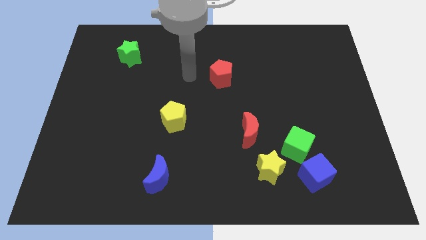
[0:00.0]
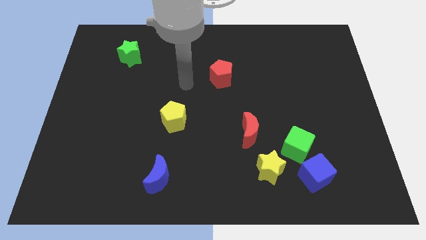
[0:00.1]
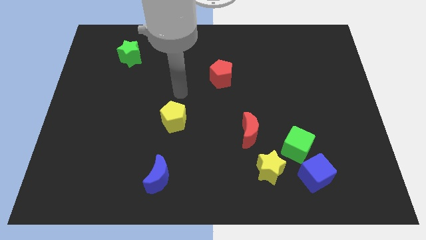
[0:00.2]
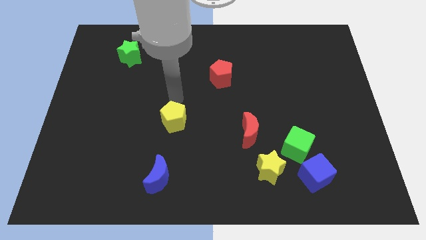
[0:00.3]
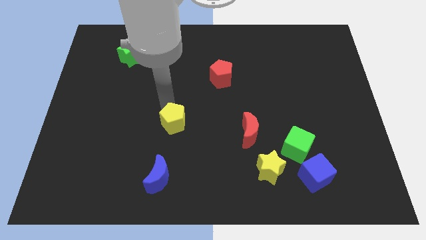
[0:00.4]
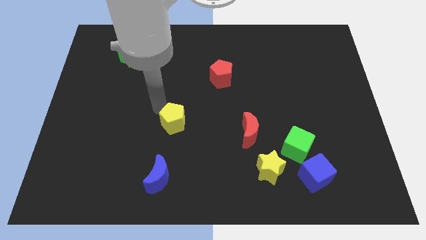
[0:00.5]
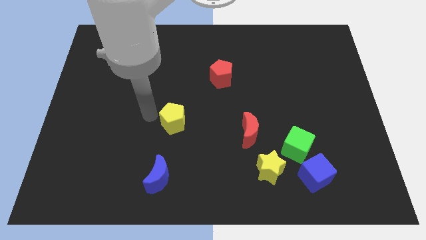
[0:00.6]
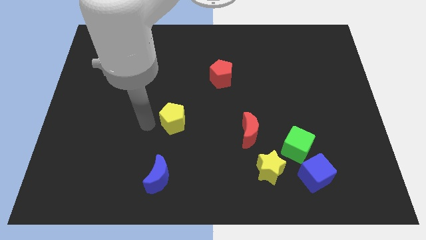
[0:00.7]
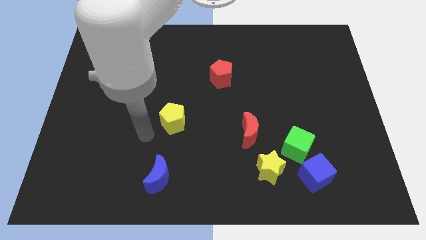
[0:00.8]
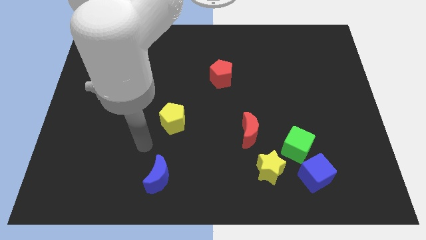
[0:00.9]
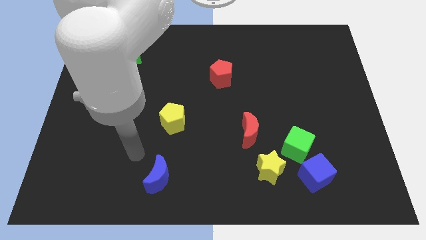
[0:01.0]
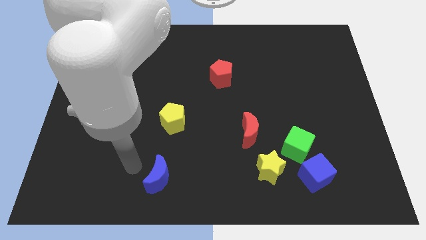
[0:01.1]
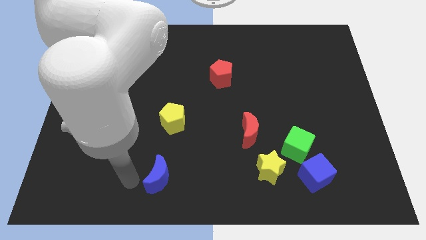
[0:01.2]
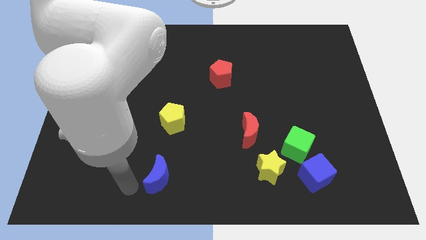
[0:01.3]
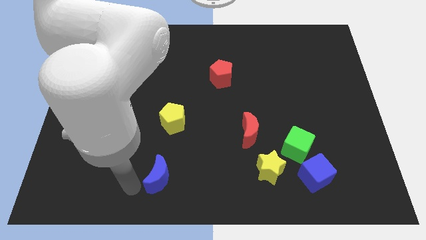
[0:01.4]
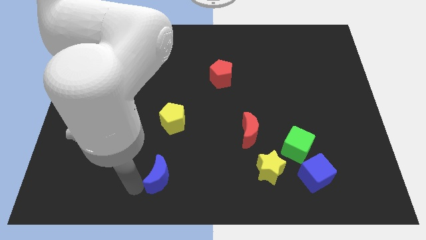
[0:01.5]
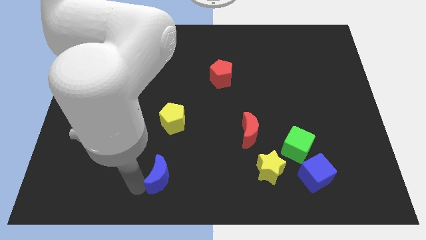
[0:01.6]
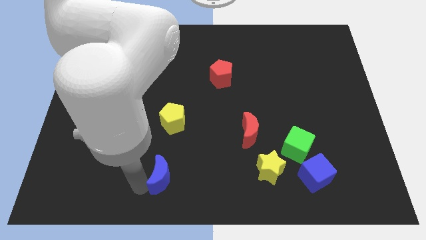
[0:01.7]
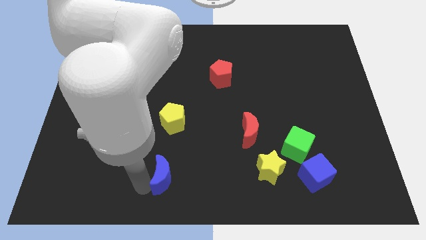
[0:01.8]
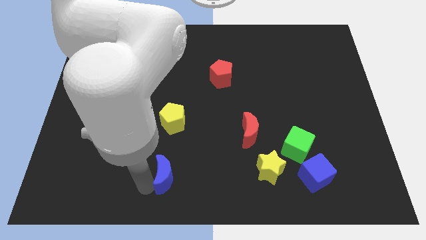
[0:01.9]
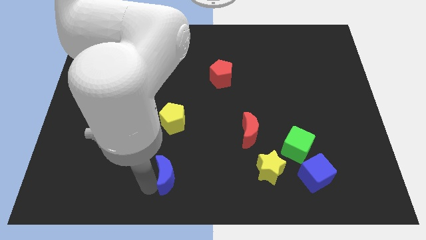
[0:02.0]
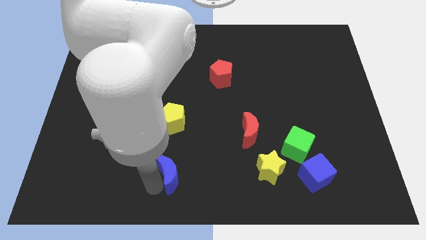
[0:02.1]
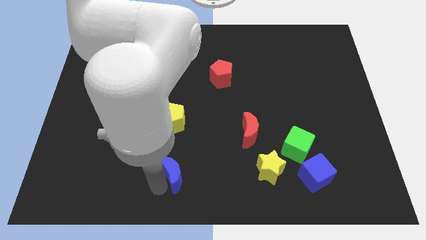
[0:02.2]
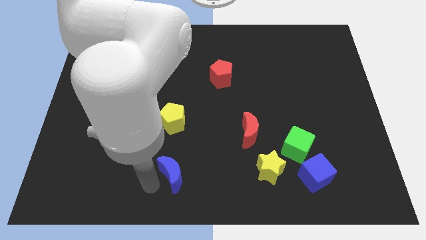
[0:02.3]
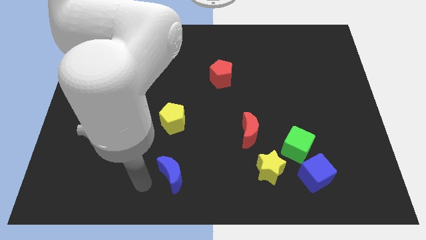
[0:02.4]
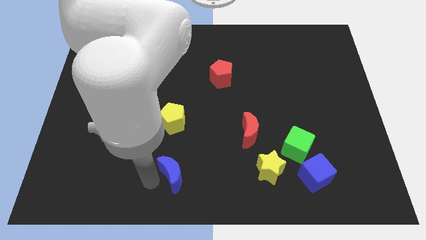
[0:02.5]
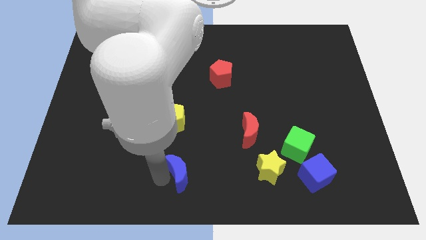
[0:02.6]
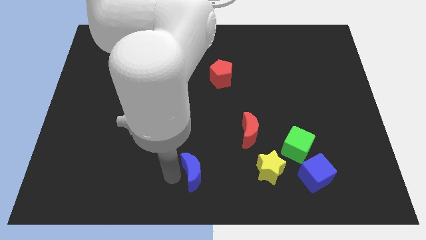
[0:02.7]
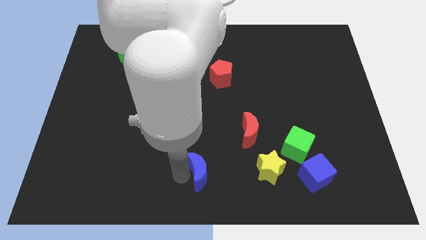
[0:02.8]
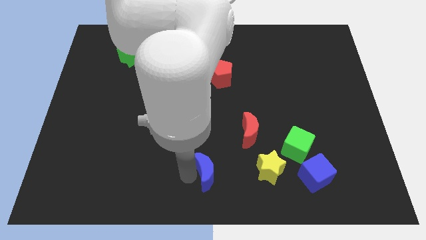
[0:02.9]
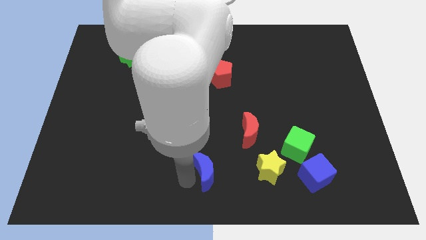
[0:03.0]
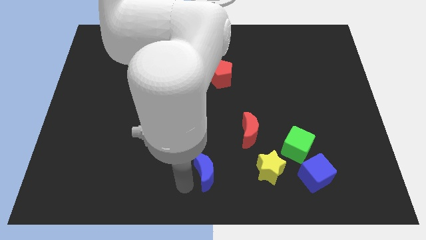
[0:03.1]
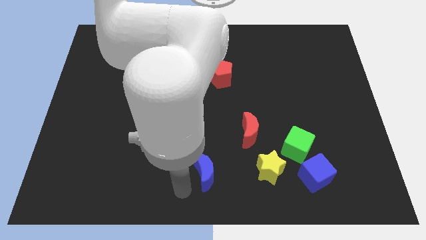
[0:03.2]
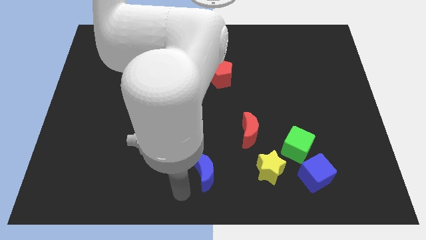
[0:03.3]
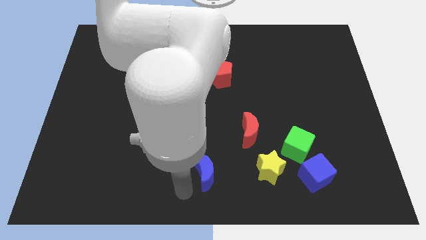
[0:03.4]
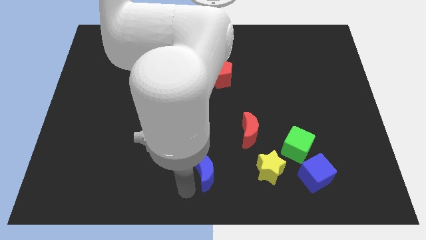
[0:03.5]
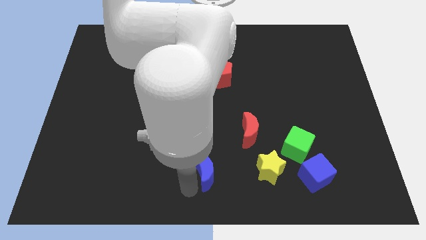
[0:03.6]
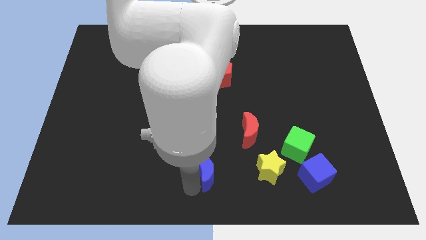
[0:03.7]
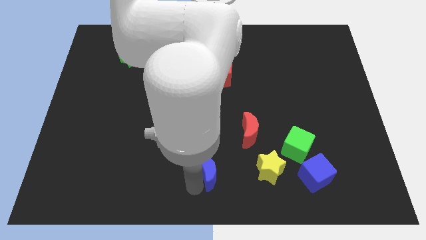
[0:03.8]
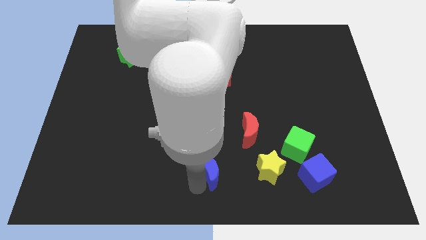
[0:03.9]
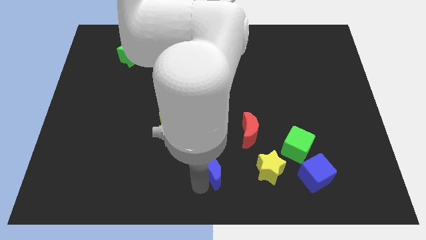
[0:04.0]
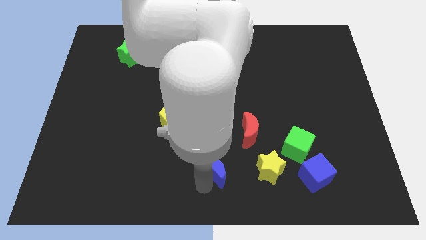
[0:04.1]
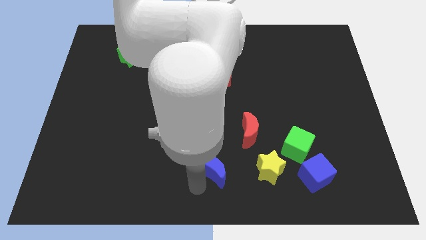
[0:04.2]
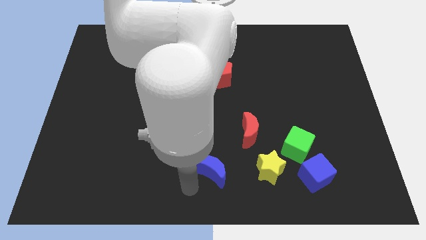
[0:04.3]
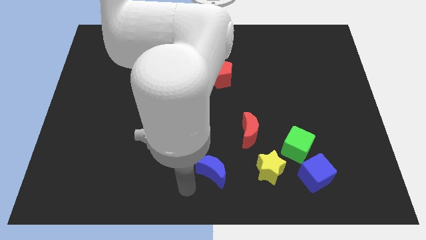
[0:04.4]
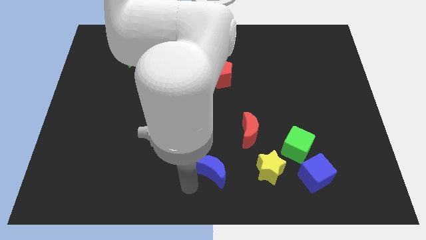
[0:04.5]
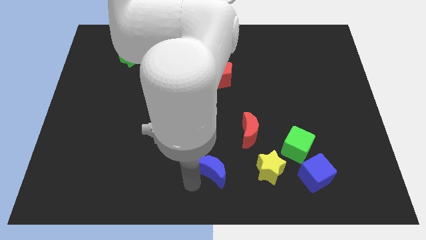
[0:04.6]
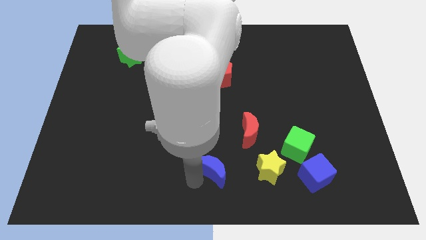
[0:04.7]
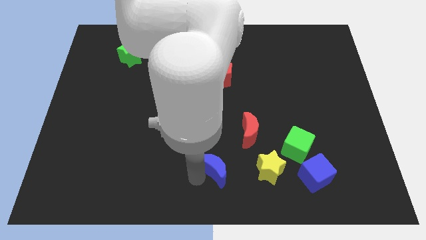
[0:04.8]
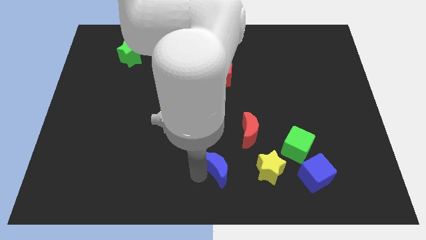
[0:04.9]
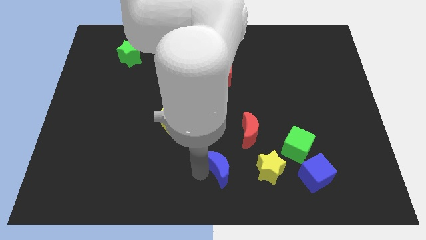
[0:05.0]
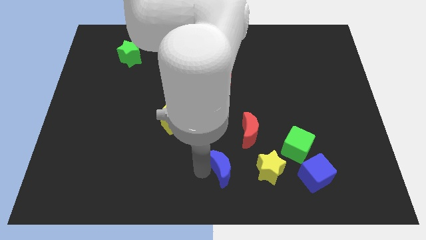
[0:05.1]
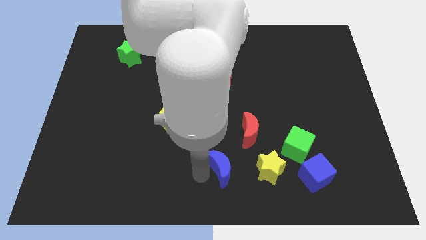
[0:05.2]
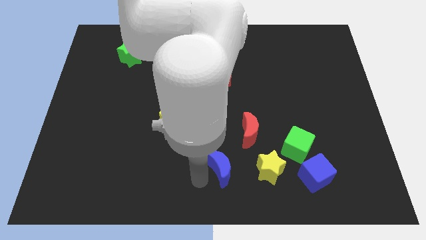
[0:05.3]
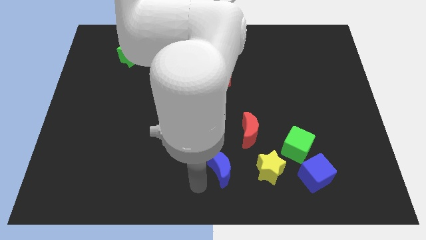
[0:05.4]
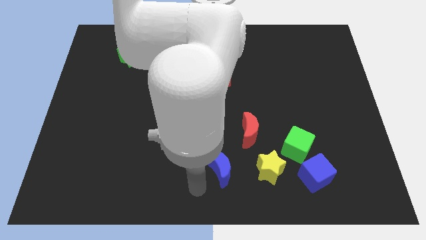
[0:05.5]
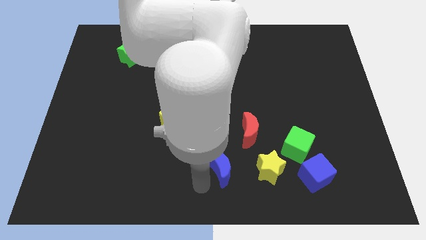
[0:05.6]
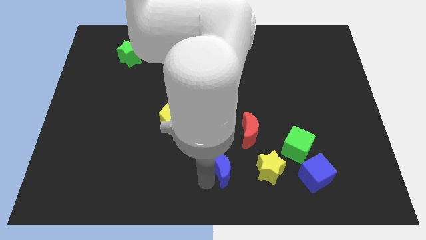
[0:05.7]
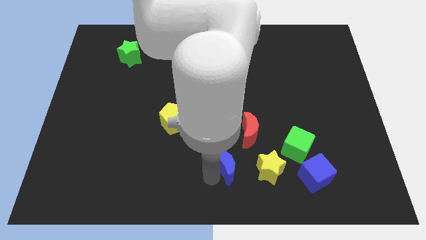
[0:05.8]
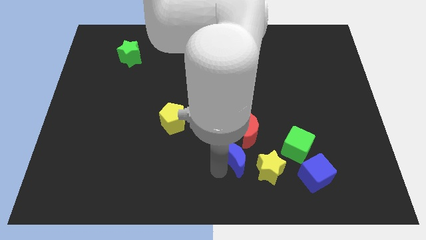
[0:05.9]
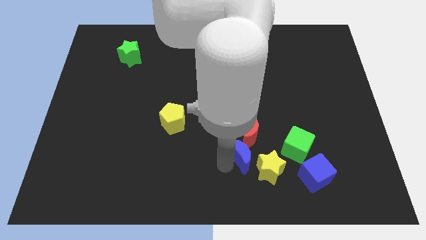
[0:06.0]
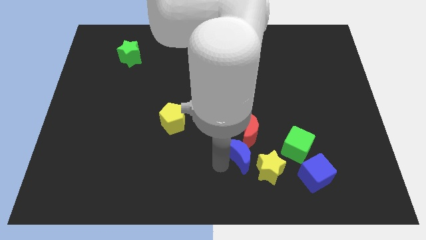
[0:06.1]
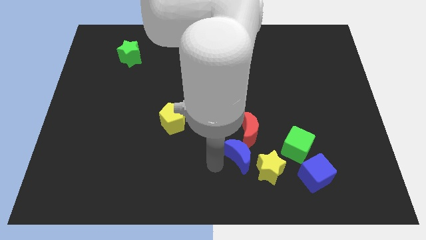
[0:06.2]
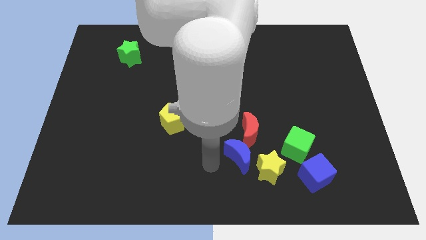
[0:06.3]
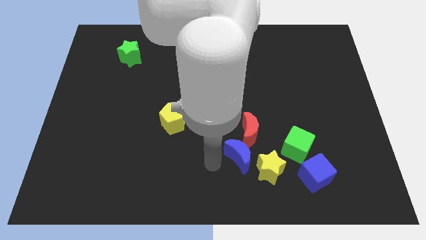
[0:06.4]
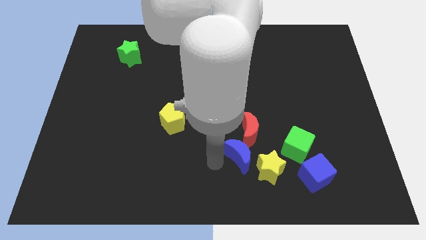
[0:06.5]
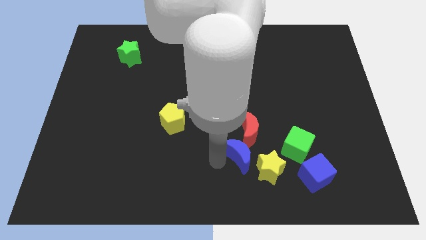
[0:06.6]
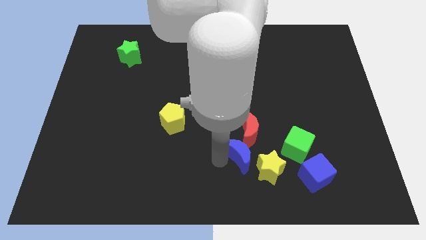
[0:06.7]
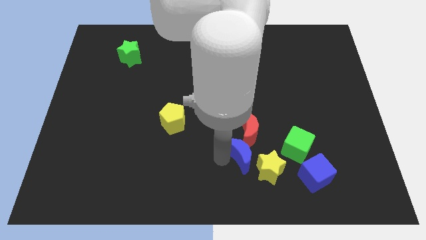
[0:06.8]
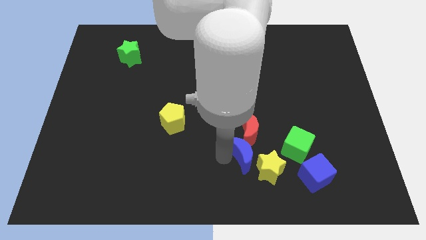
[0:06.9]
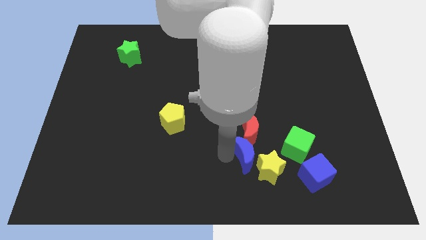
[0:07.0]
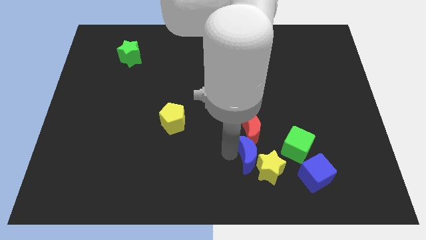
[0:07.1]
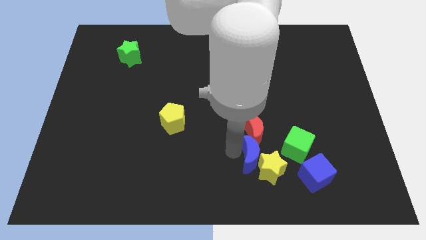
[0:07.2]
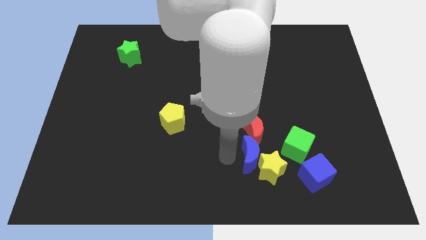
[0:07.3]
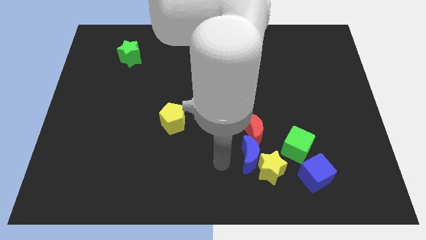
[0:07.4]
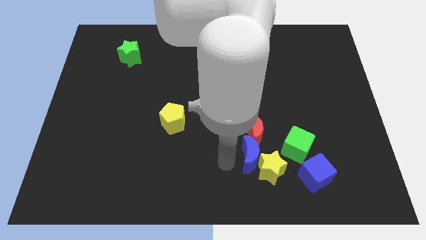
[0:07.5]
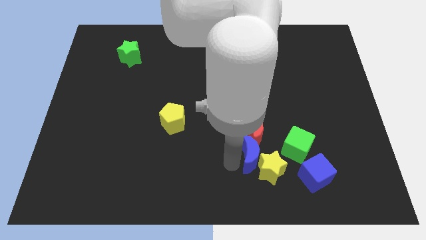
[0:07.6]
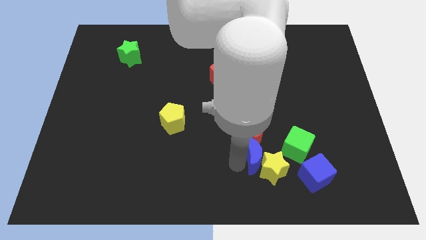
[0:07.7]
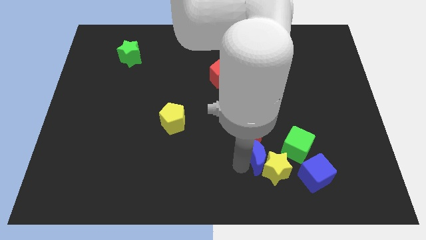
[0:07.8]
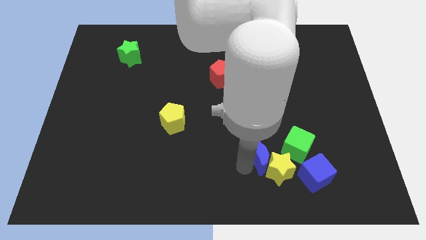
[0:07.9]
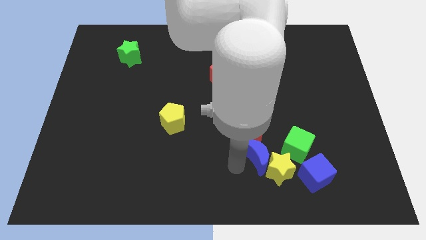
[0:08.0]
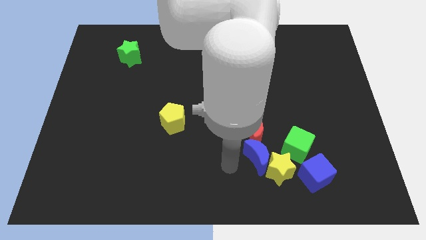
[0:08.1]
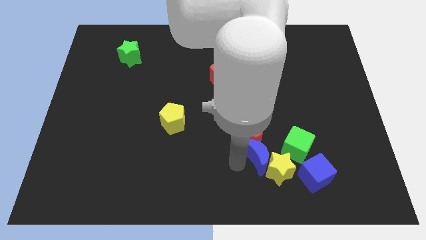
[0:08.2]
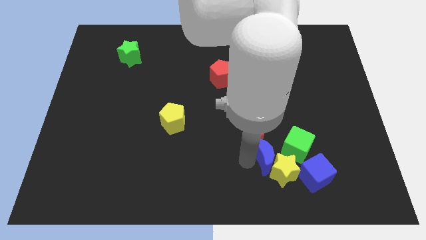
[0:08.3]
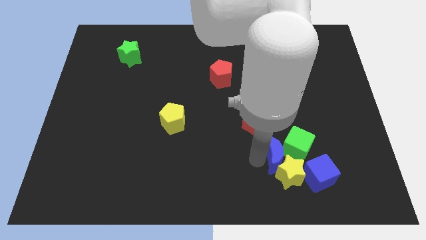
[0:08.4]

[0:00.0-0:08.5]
push the blue moon close to the green cube
